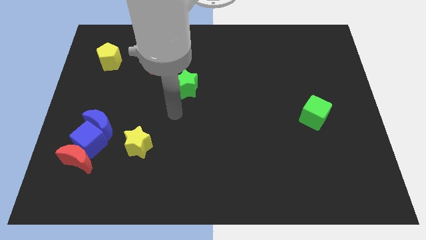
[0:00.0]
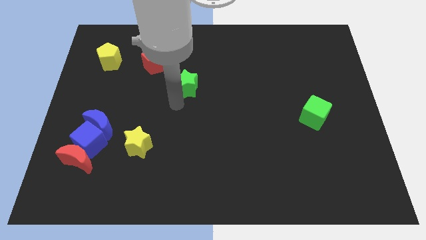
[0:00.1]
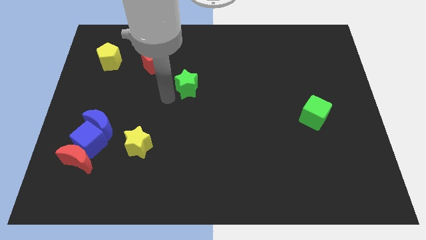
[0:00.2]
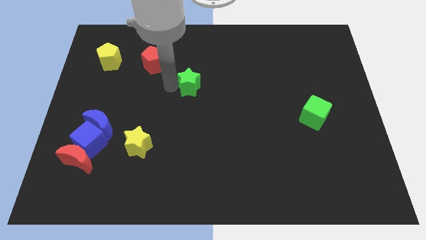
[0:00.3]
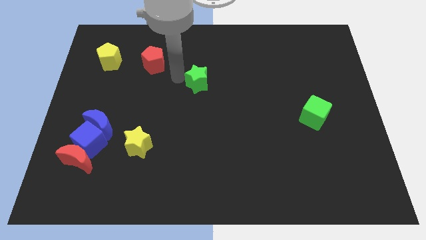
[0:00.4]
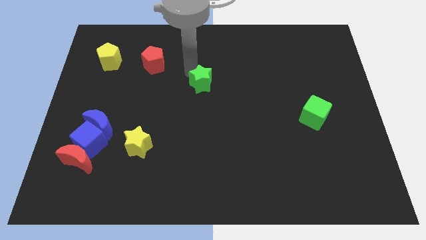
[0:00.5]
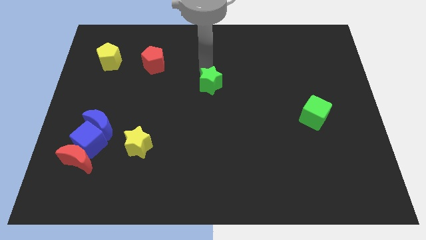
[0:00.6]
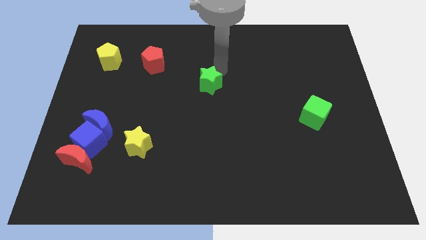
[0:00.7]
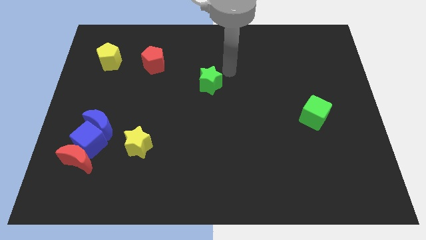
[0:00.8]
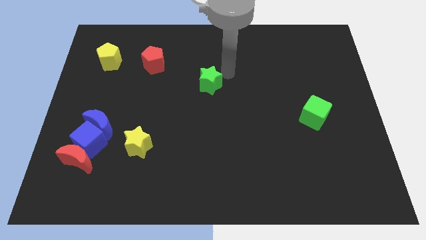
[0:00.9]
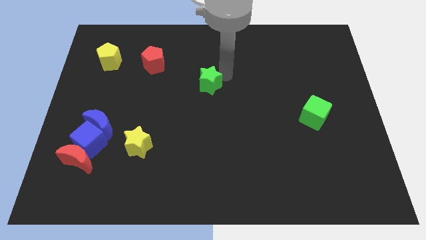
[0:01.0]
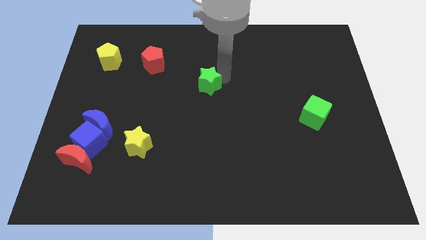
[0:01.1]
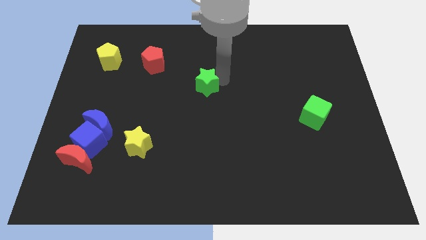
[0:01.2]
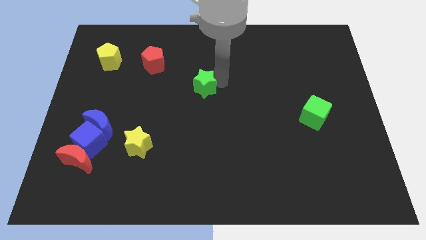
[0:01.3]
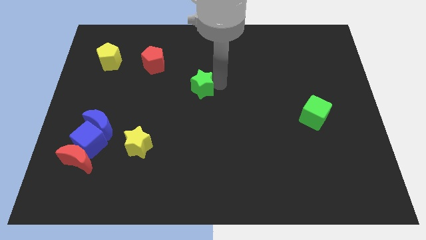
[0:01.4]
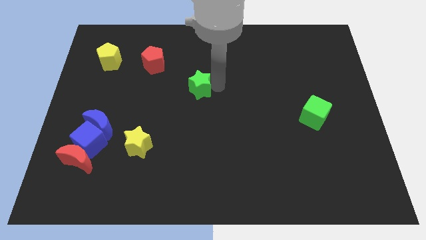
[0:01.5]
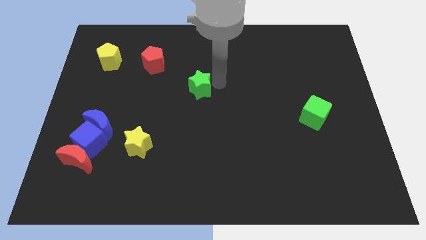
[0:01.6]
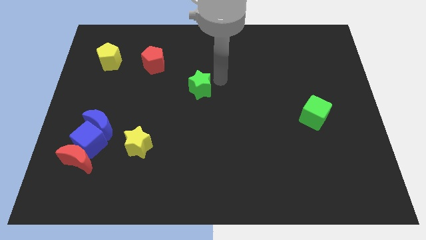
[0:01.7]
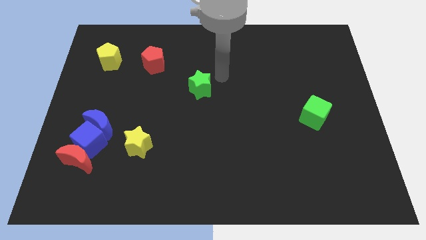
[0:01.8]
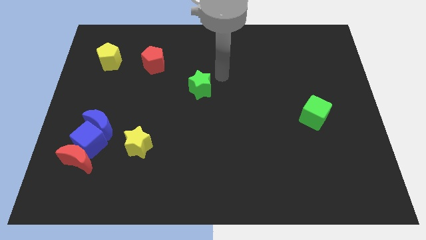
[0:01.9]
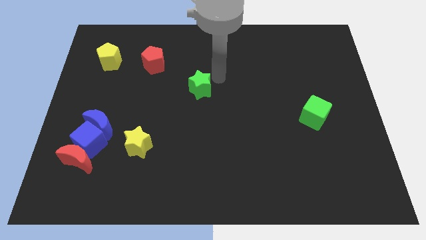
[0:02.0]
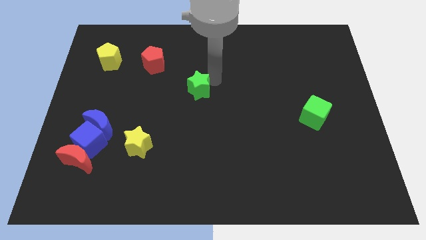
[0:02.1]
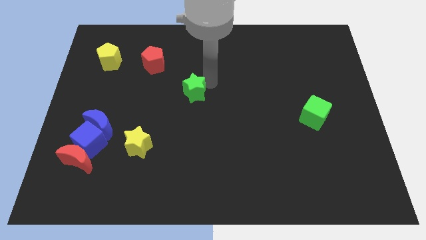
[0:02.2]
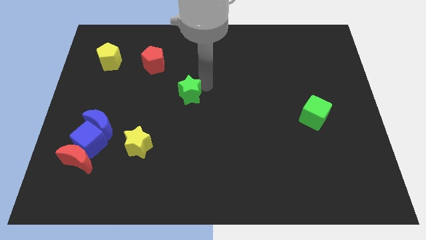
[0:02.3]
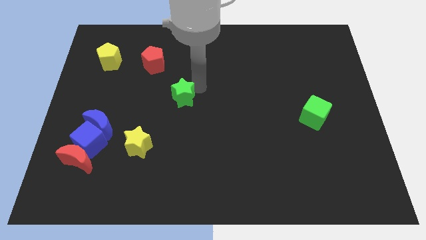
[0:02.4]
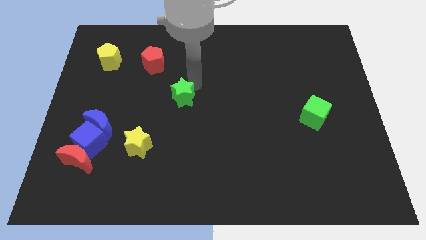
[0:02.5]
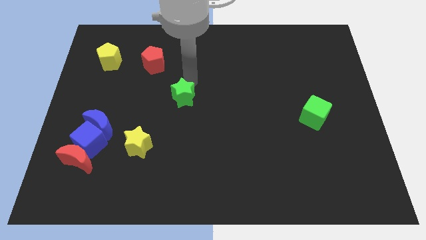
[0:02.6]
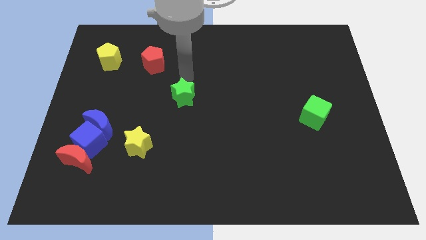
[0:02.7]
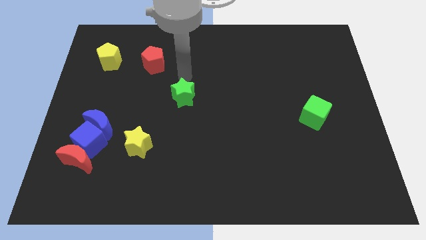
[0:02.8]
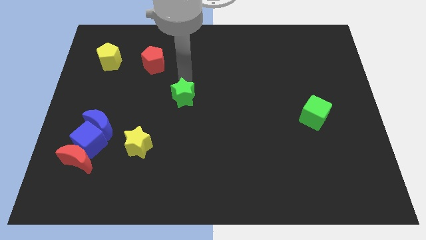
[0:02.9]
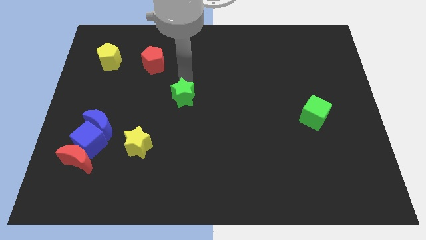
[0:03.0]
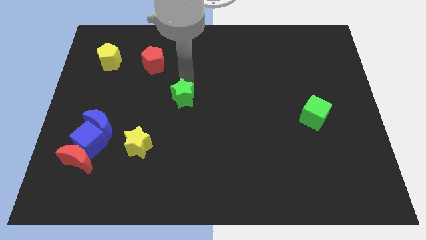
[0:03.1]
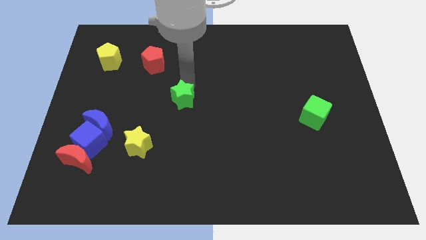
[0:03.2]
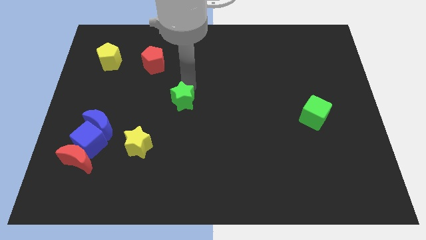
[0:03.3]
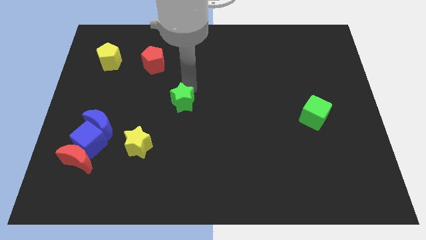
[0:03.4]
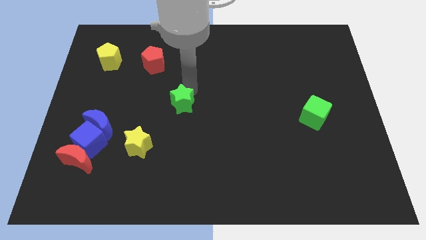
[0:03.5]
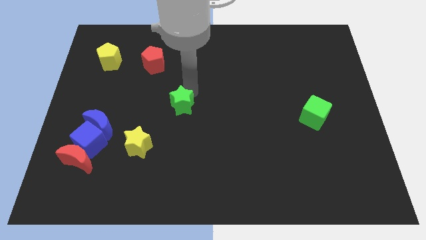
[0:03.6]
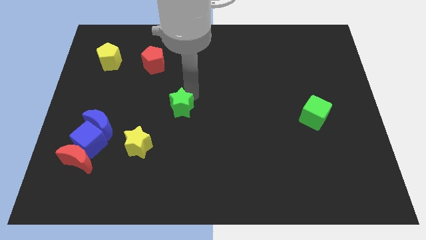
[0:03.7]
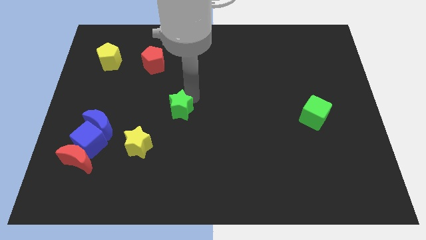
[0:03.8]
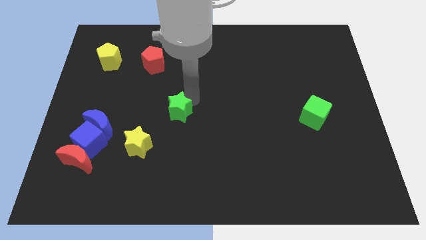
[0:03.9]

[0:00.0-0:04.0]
slide the green star slightly downwards

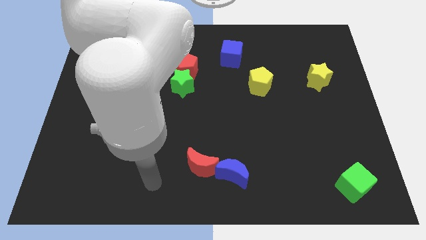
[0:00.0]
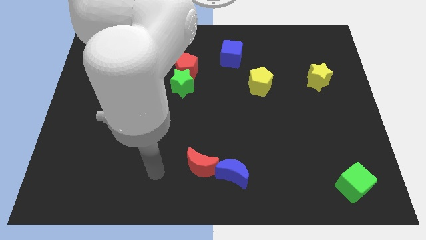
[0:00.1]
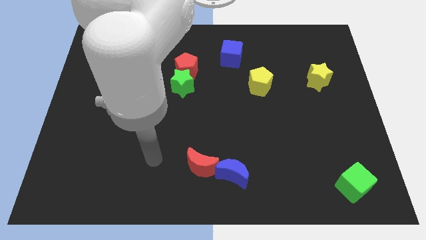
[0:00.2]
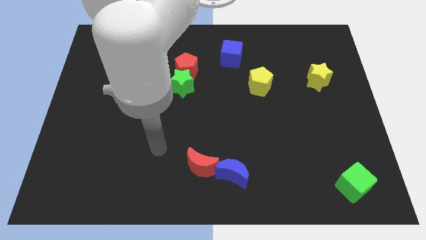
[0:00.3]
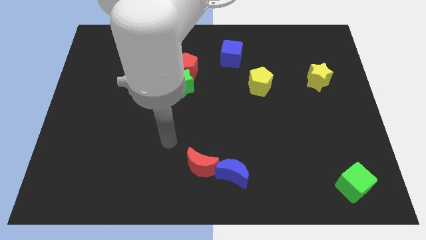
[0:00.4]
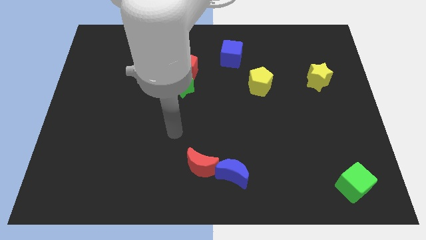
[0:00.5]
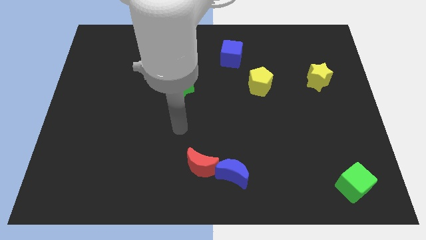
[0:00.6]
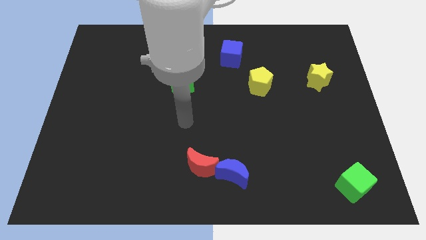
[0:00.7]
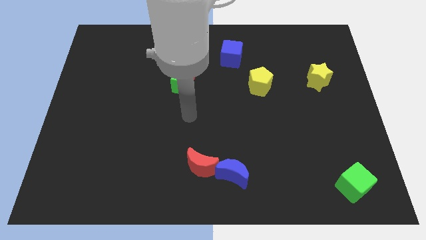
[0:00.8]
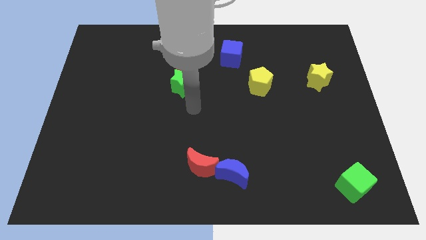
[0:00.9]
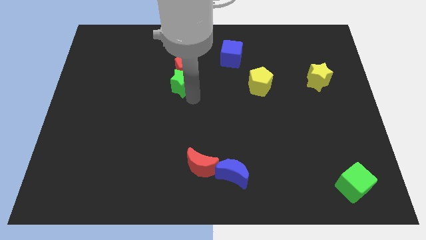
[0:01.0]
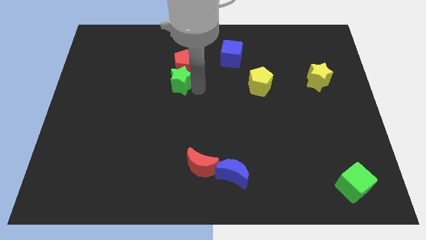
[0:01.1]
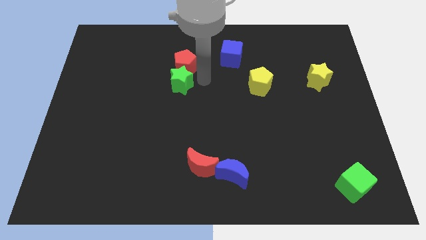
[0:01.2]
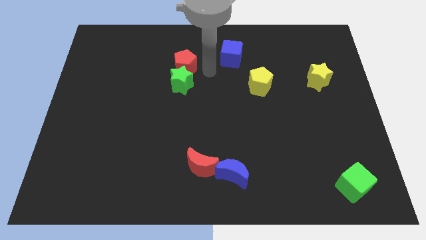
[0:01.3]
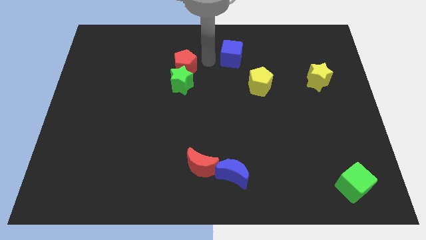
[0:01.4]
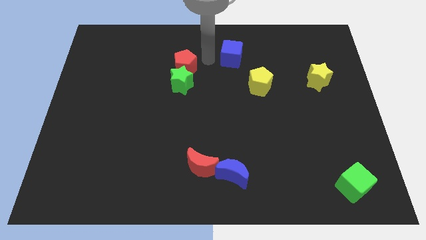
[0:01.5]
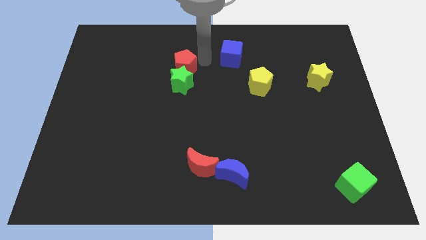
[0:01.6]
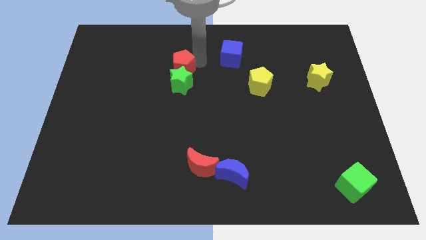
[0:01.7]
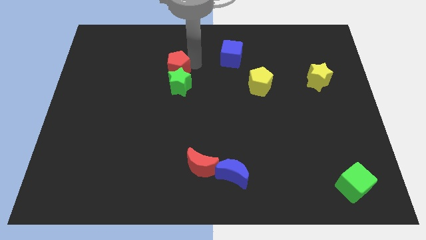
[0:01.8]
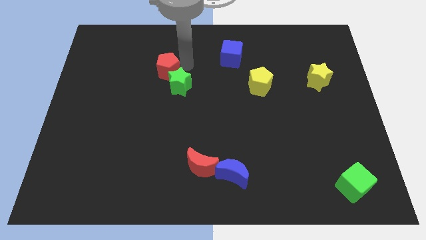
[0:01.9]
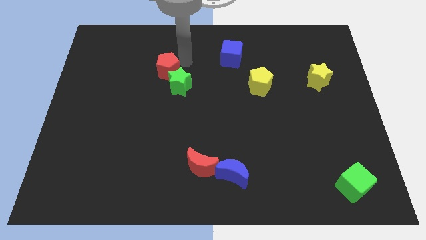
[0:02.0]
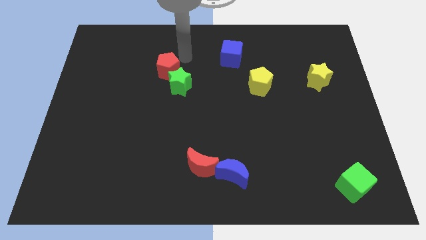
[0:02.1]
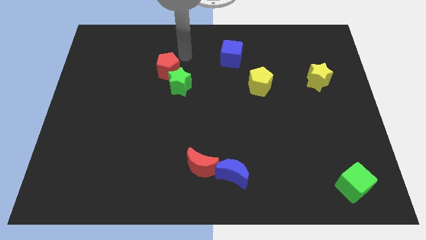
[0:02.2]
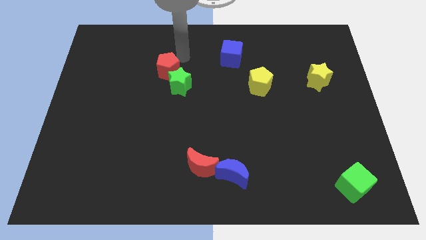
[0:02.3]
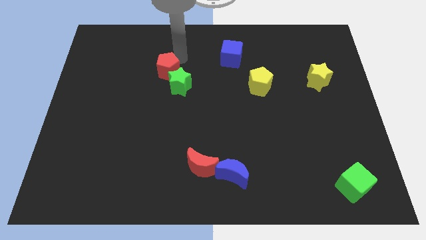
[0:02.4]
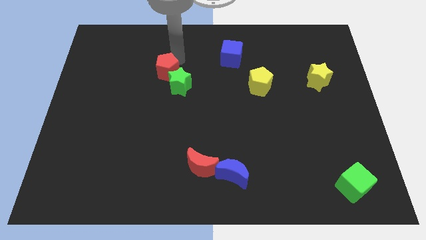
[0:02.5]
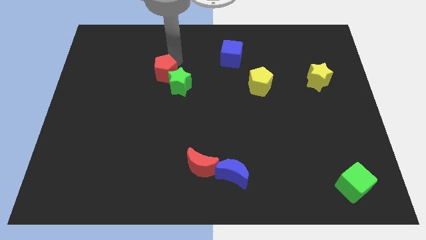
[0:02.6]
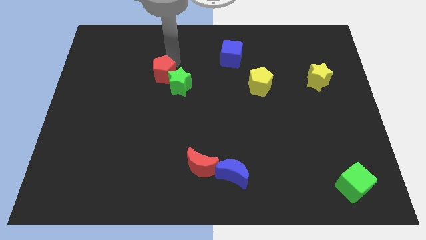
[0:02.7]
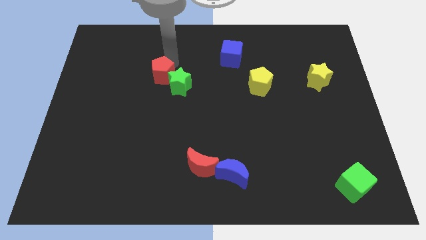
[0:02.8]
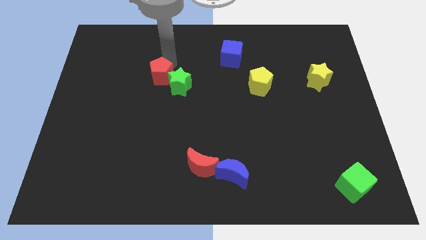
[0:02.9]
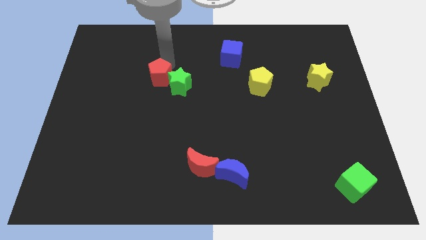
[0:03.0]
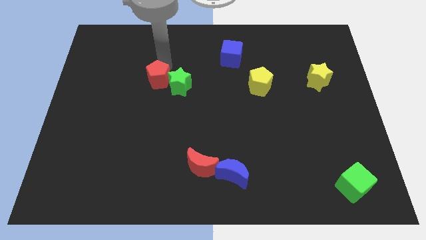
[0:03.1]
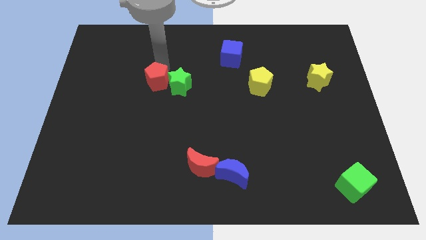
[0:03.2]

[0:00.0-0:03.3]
slightly move the red pentagon downwards and to the left

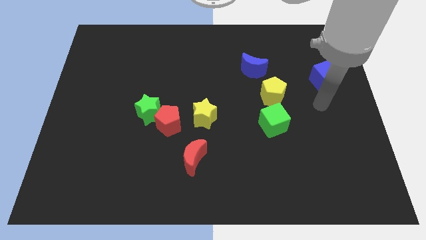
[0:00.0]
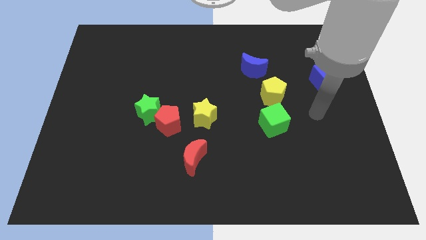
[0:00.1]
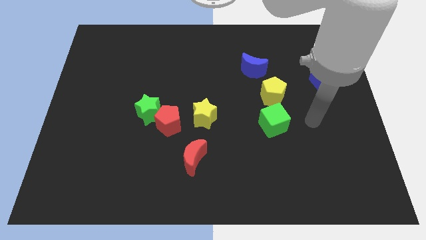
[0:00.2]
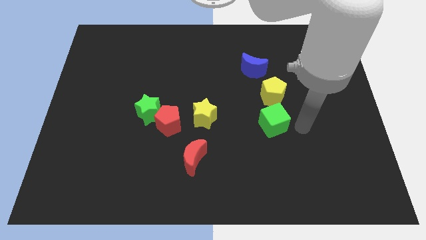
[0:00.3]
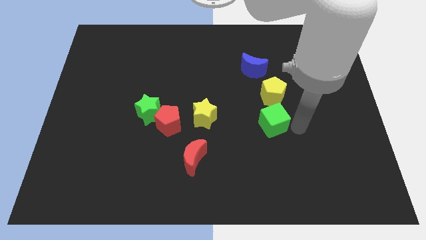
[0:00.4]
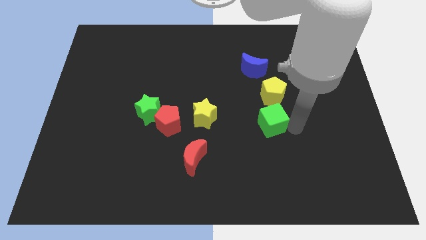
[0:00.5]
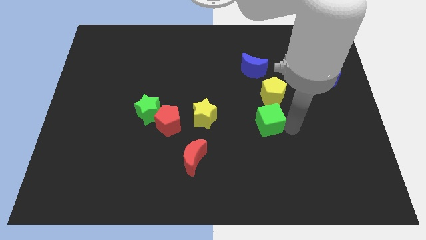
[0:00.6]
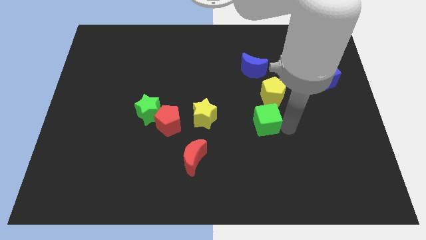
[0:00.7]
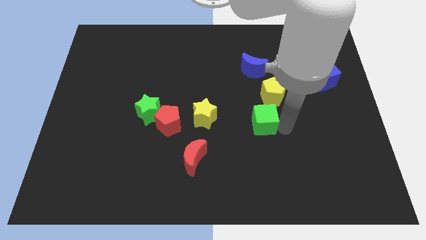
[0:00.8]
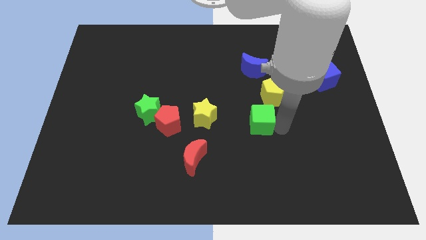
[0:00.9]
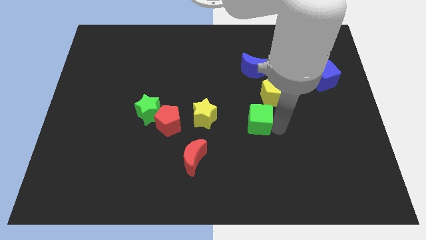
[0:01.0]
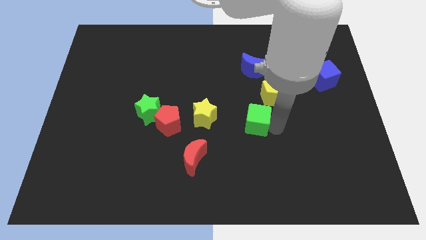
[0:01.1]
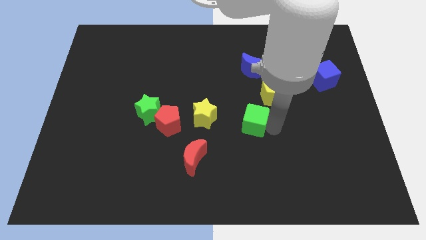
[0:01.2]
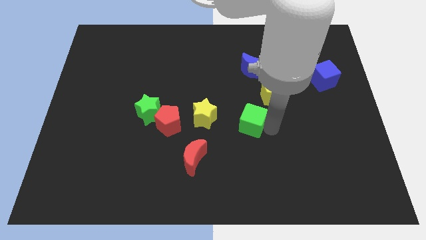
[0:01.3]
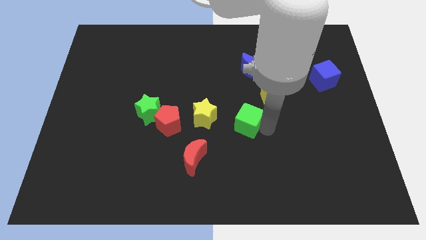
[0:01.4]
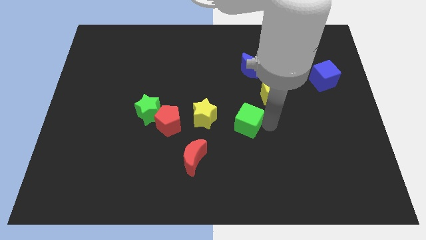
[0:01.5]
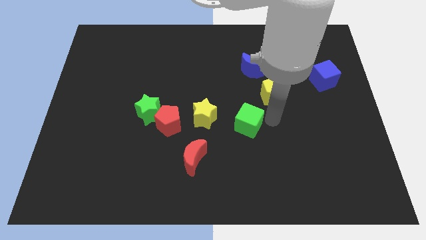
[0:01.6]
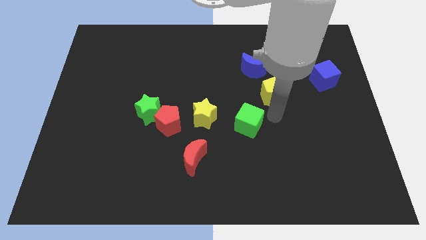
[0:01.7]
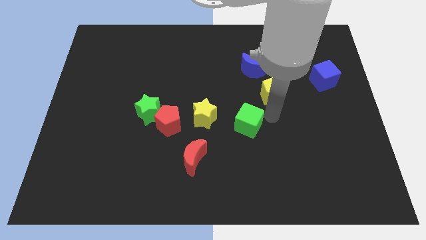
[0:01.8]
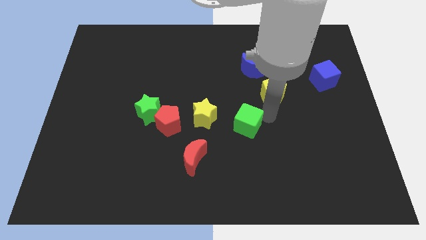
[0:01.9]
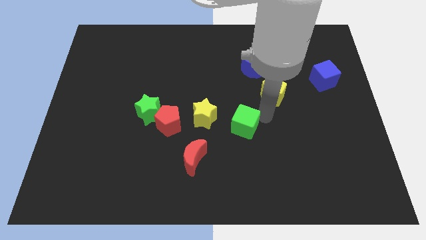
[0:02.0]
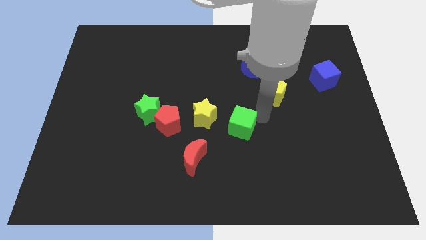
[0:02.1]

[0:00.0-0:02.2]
move the green cube a little bit left
